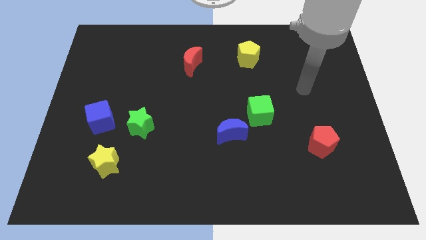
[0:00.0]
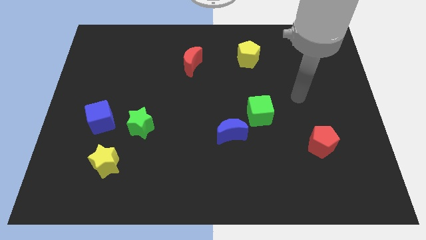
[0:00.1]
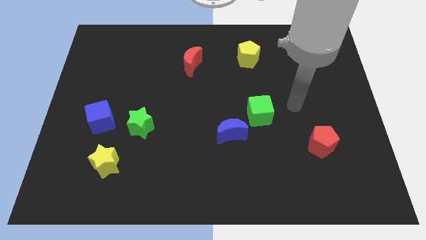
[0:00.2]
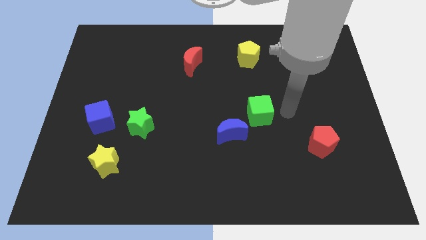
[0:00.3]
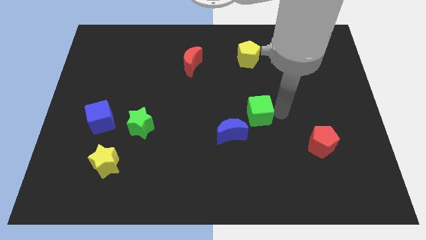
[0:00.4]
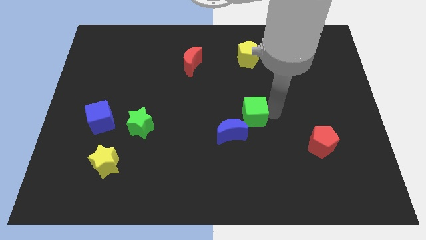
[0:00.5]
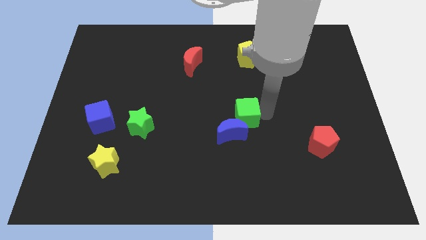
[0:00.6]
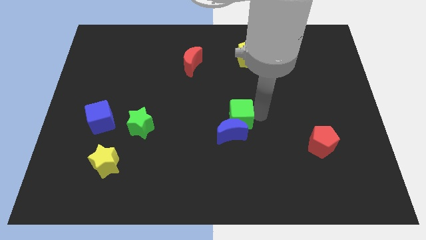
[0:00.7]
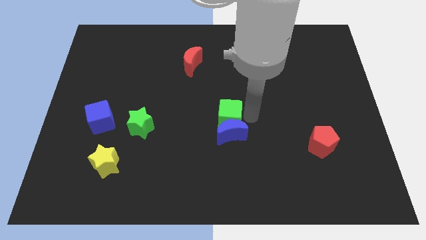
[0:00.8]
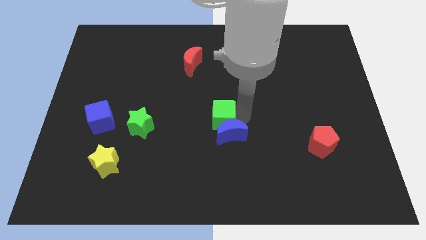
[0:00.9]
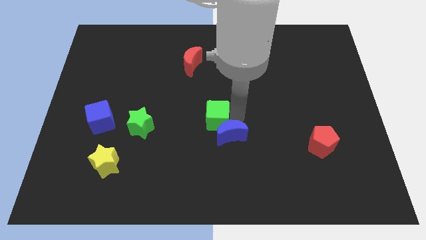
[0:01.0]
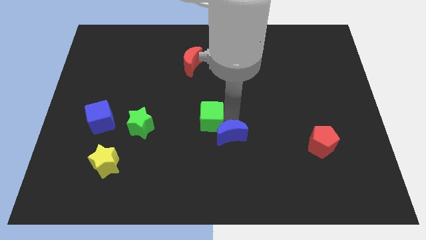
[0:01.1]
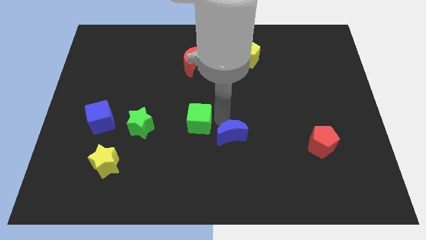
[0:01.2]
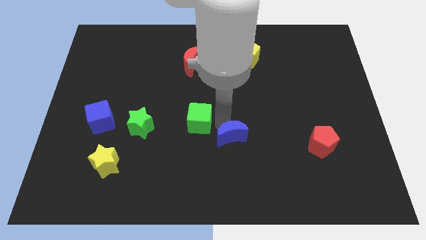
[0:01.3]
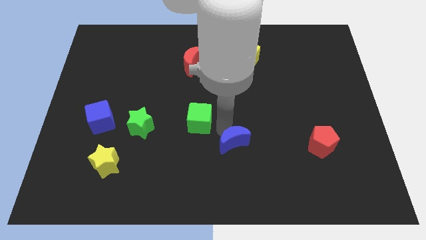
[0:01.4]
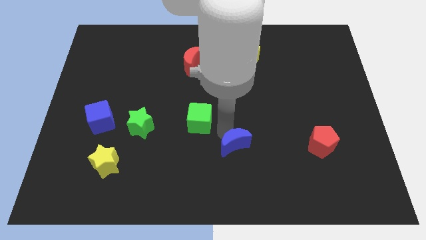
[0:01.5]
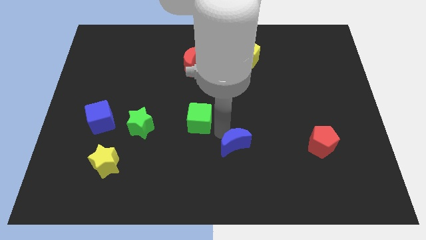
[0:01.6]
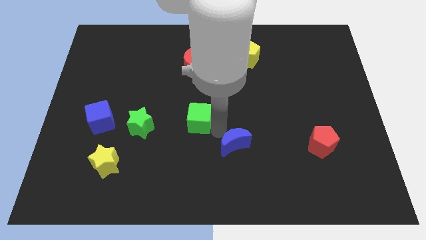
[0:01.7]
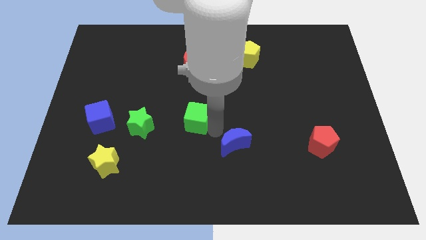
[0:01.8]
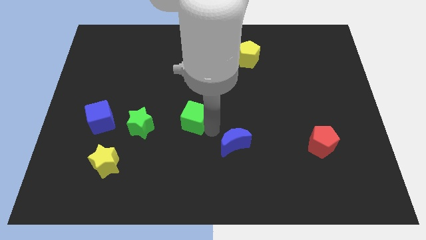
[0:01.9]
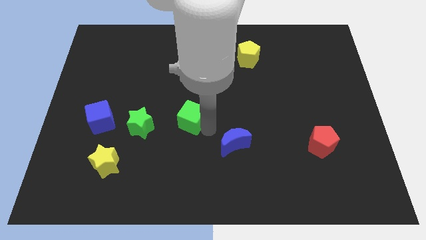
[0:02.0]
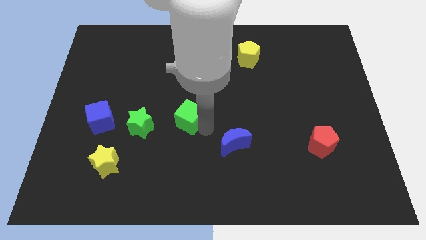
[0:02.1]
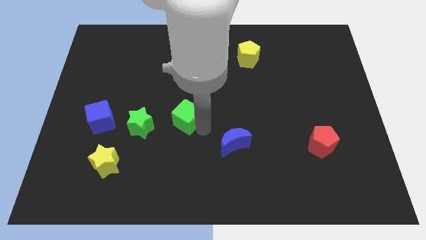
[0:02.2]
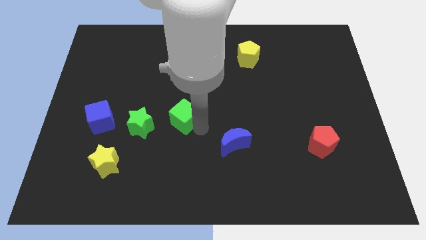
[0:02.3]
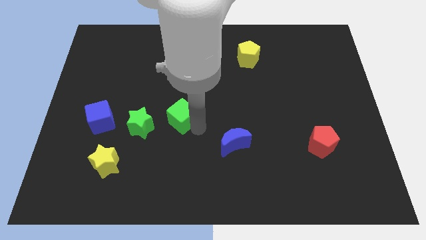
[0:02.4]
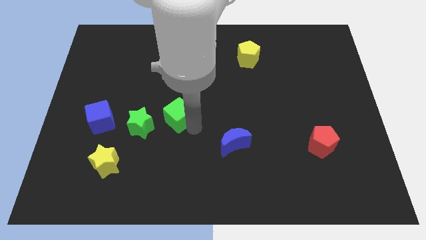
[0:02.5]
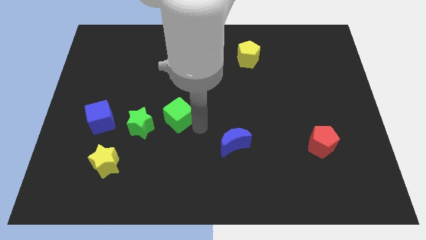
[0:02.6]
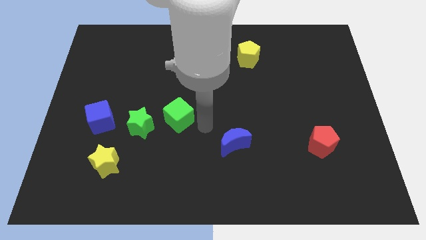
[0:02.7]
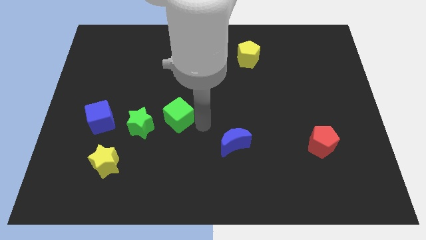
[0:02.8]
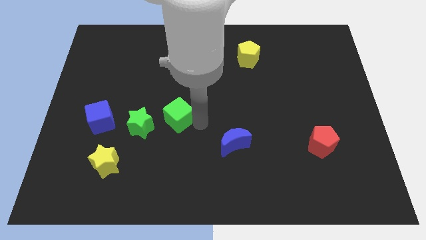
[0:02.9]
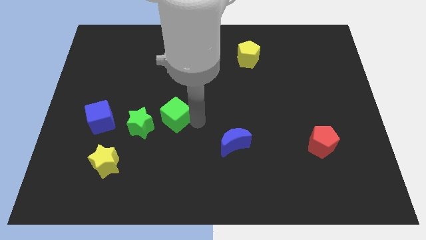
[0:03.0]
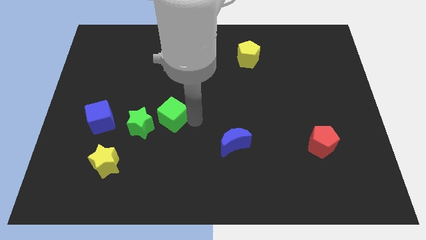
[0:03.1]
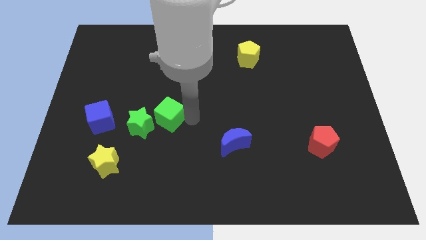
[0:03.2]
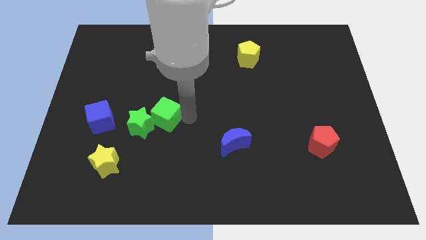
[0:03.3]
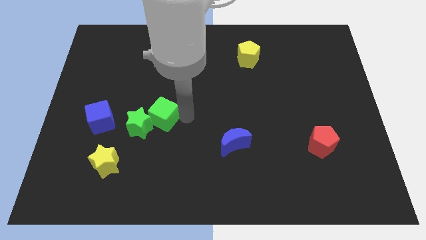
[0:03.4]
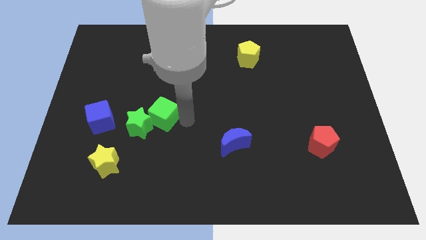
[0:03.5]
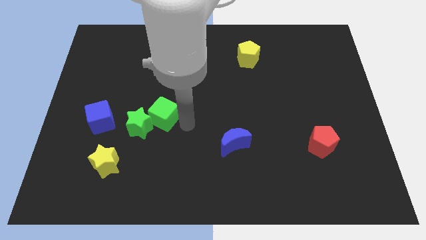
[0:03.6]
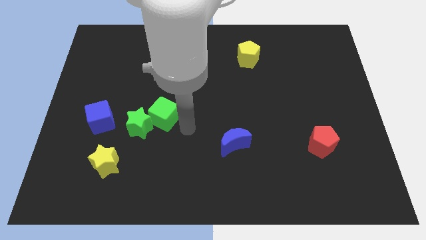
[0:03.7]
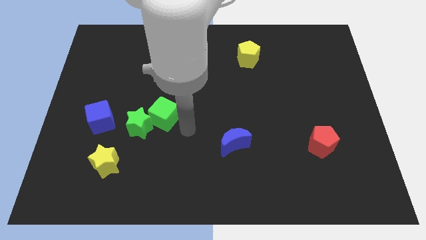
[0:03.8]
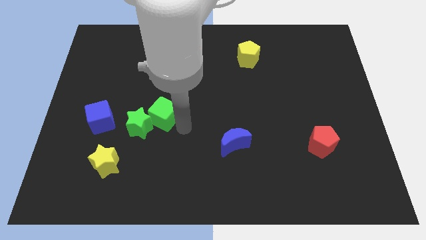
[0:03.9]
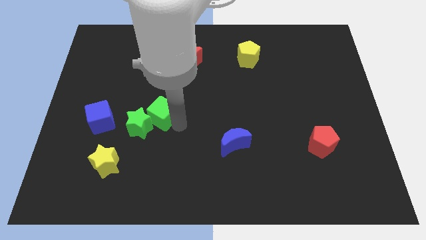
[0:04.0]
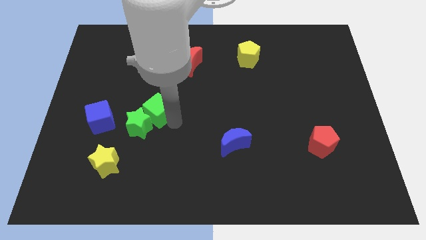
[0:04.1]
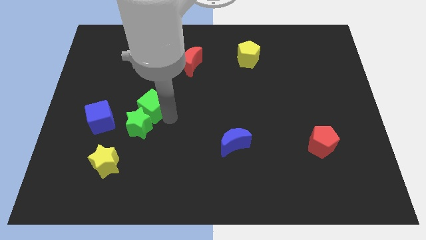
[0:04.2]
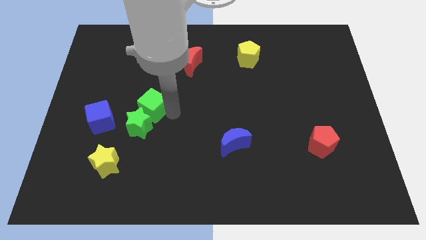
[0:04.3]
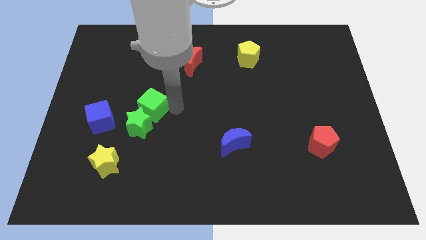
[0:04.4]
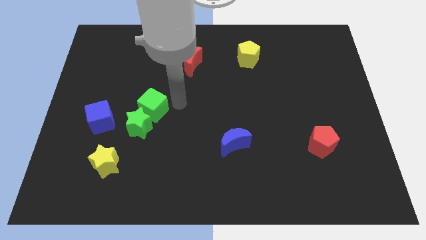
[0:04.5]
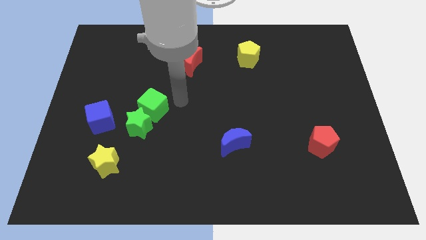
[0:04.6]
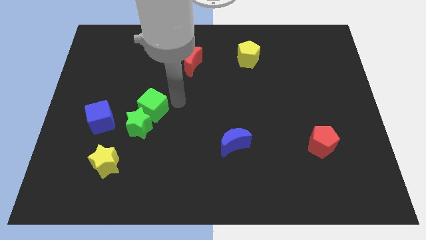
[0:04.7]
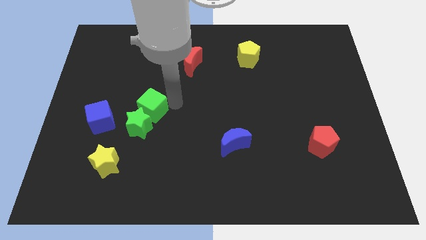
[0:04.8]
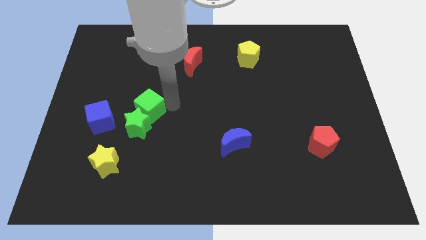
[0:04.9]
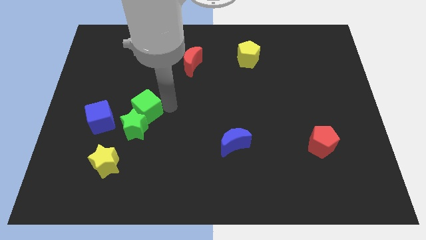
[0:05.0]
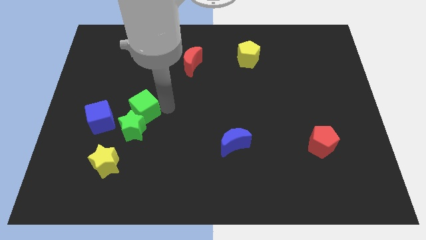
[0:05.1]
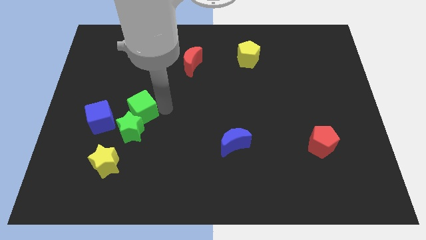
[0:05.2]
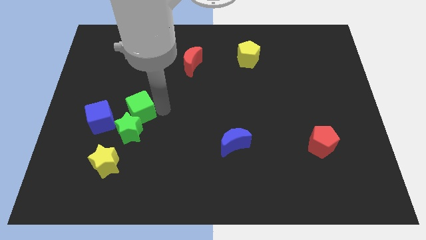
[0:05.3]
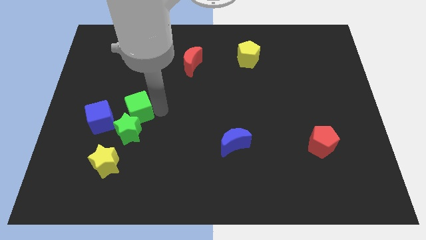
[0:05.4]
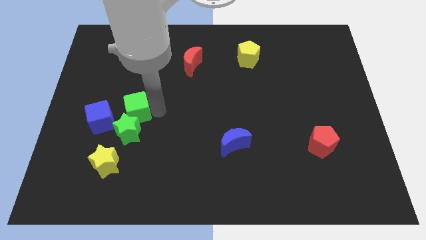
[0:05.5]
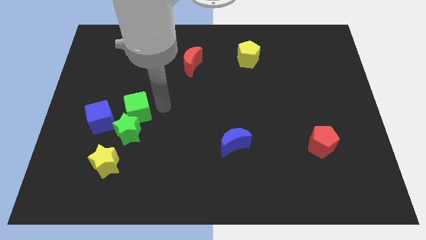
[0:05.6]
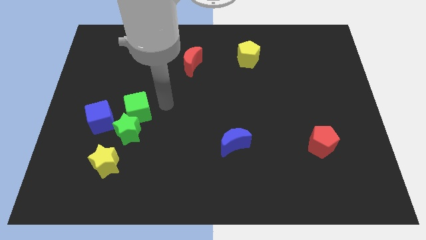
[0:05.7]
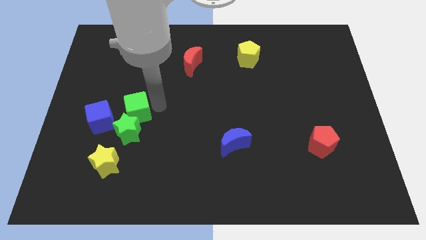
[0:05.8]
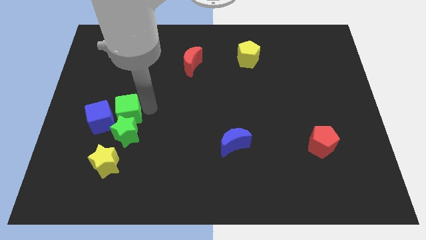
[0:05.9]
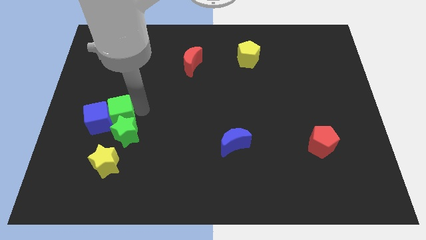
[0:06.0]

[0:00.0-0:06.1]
push the green cube close to the blue cube
